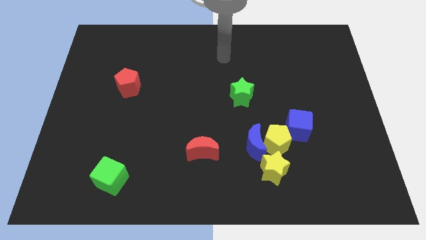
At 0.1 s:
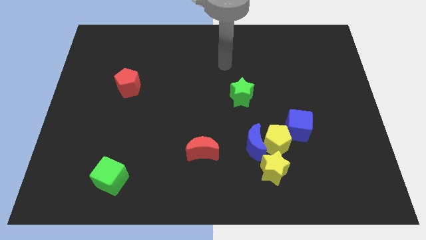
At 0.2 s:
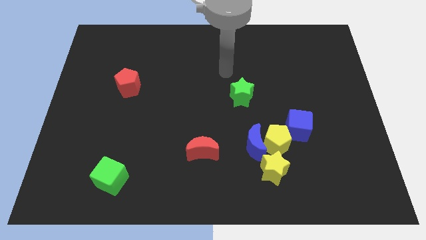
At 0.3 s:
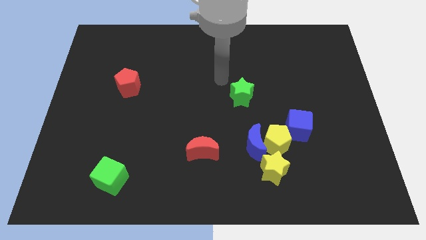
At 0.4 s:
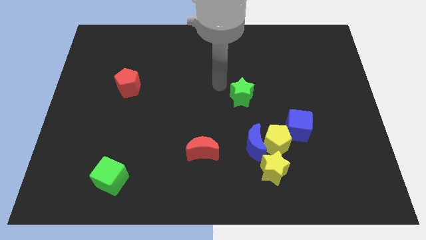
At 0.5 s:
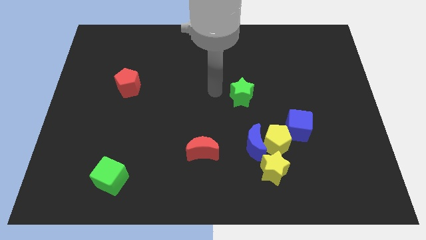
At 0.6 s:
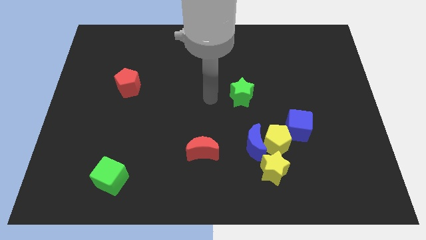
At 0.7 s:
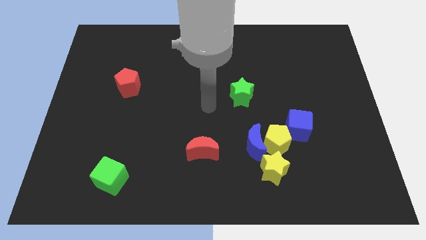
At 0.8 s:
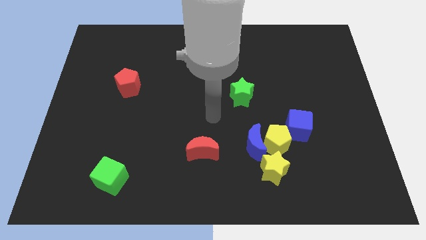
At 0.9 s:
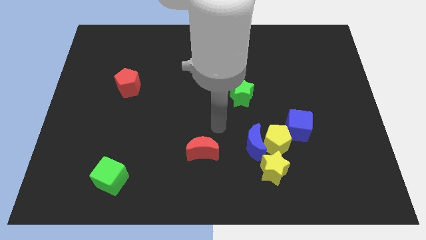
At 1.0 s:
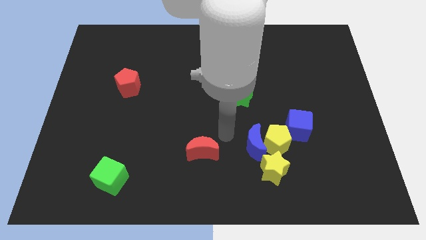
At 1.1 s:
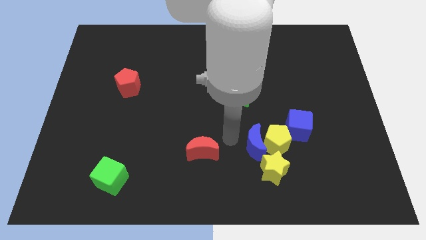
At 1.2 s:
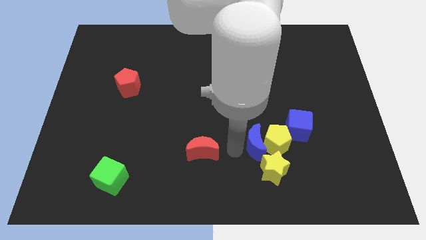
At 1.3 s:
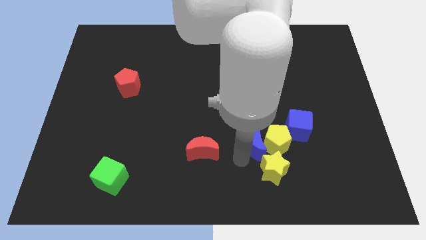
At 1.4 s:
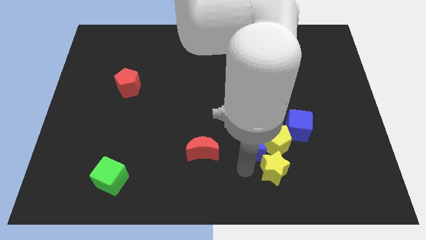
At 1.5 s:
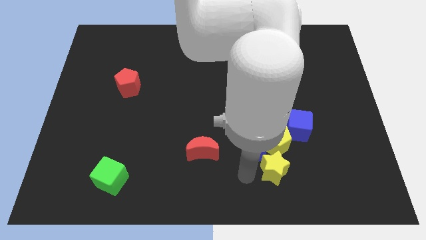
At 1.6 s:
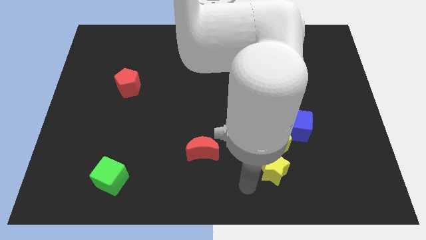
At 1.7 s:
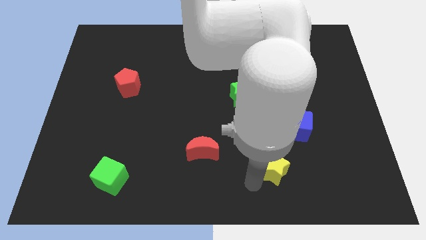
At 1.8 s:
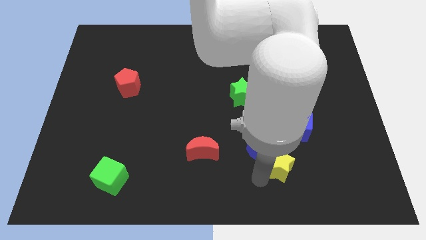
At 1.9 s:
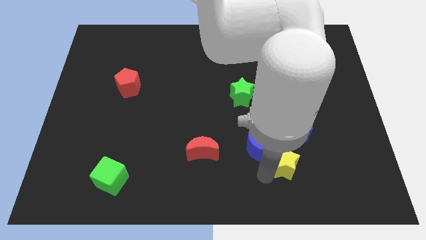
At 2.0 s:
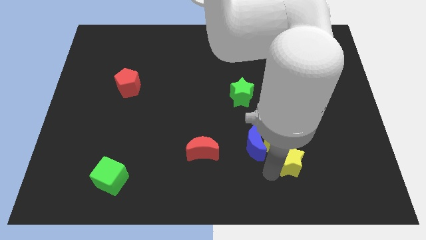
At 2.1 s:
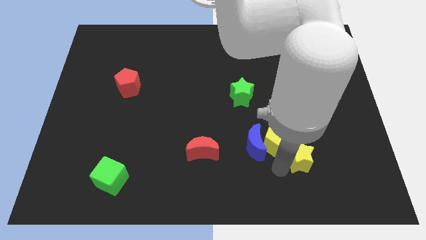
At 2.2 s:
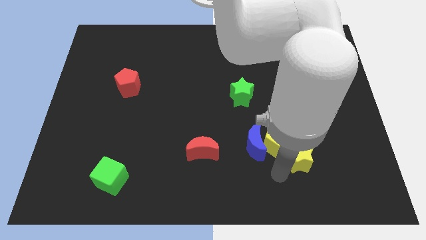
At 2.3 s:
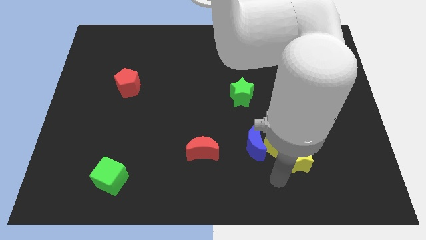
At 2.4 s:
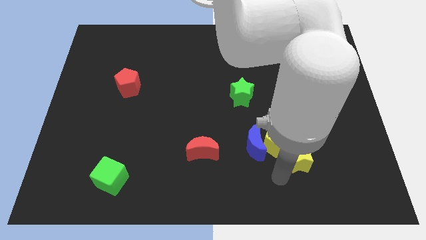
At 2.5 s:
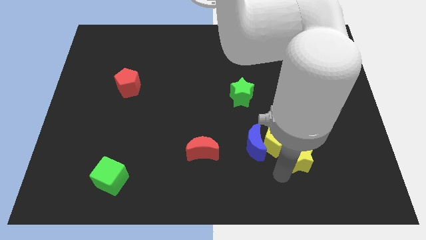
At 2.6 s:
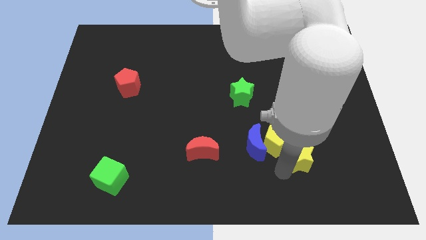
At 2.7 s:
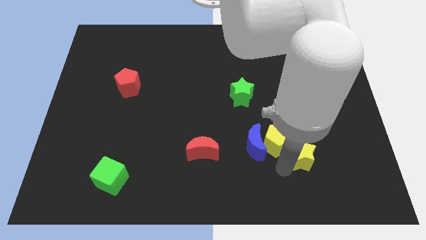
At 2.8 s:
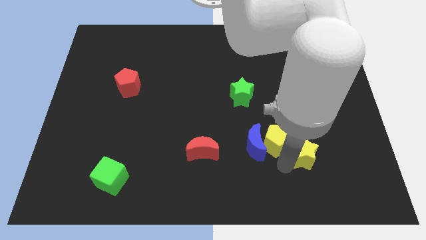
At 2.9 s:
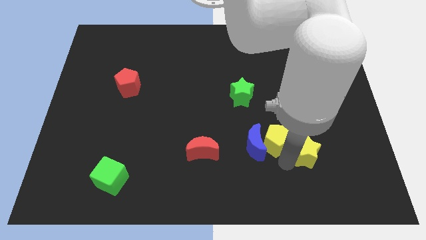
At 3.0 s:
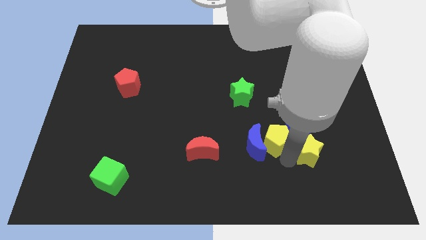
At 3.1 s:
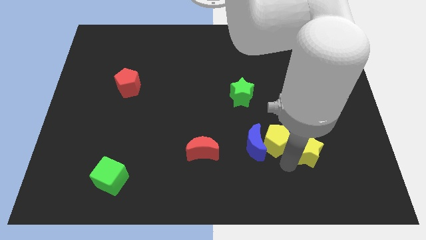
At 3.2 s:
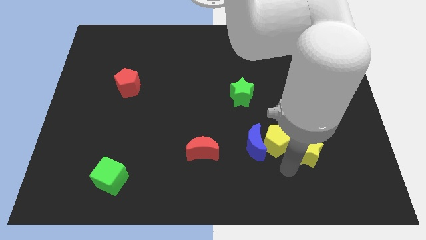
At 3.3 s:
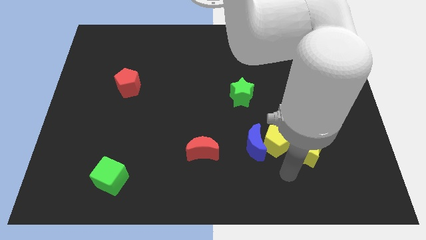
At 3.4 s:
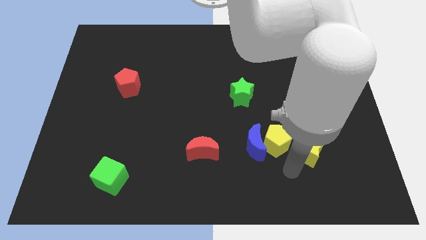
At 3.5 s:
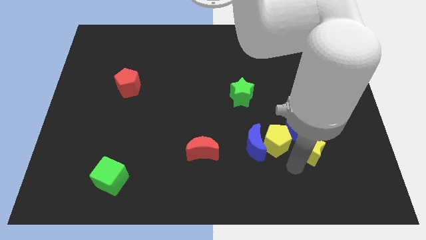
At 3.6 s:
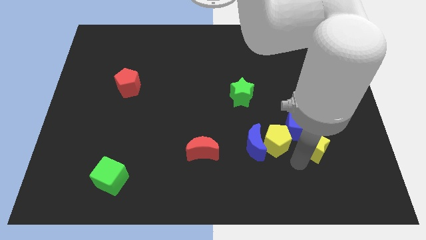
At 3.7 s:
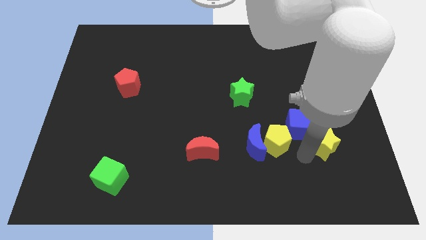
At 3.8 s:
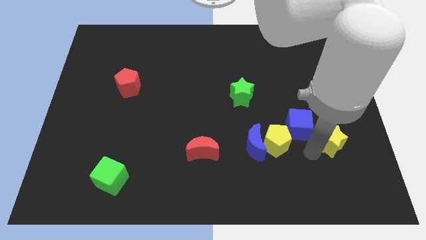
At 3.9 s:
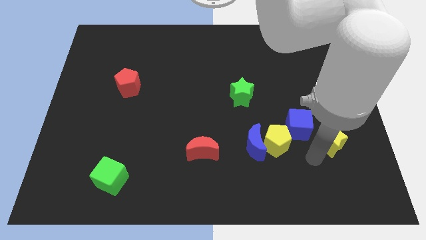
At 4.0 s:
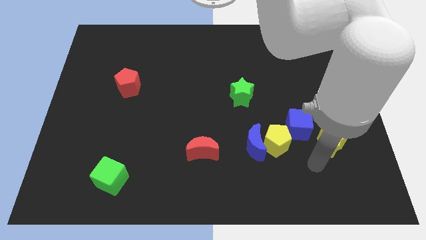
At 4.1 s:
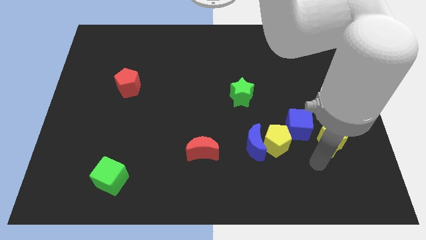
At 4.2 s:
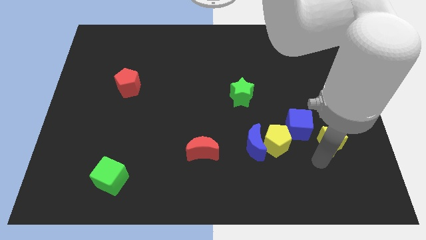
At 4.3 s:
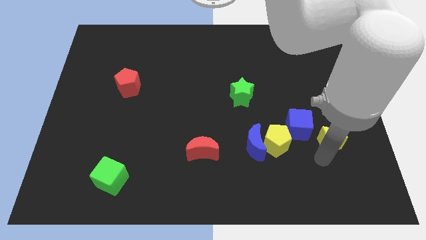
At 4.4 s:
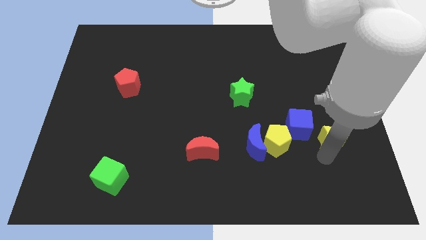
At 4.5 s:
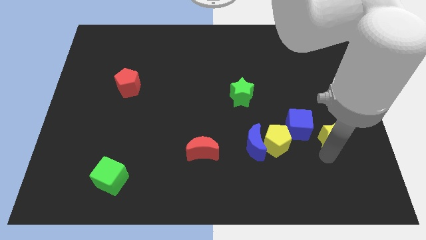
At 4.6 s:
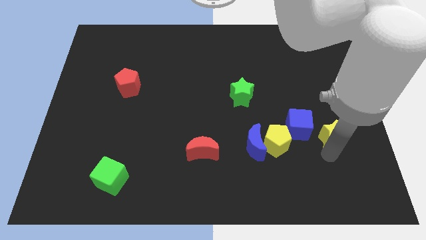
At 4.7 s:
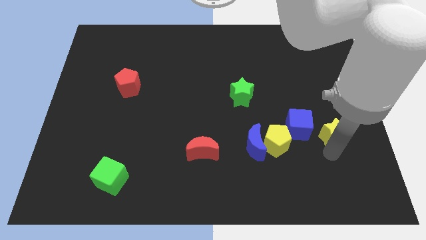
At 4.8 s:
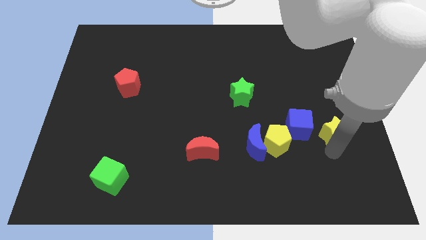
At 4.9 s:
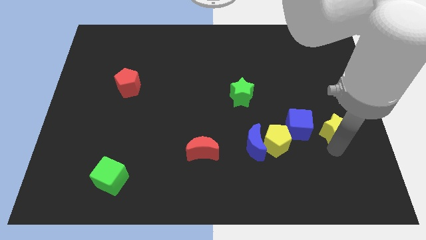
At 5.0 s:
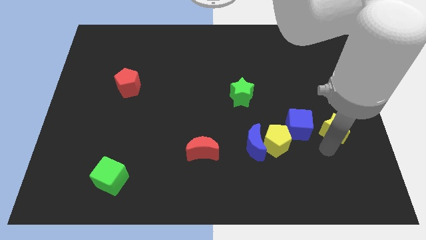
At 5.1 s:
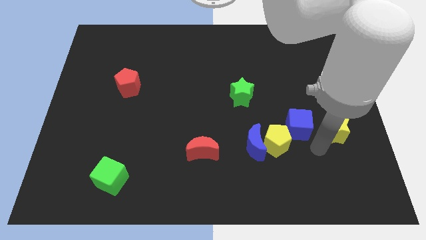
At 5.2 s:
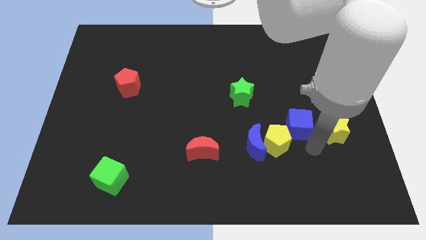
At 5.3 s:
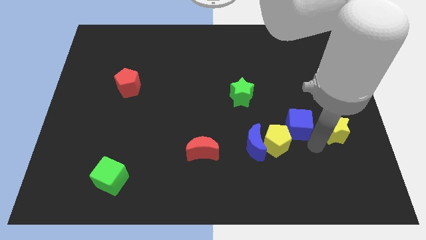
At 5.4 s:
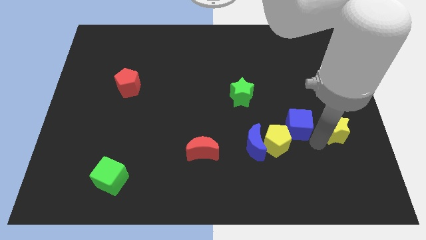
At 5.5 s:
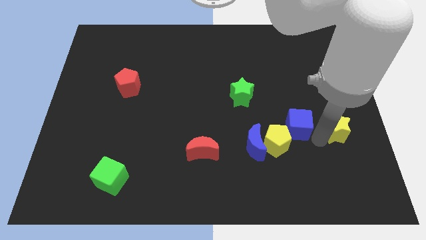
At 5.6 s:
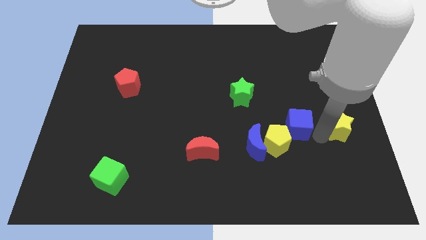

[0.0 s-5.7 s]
put the yellow star to the right side
